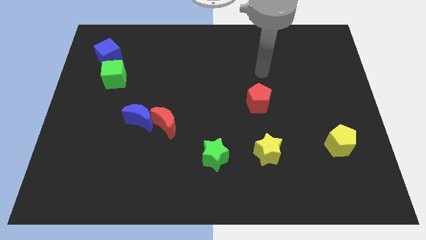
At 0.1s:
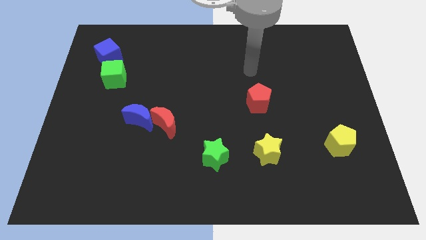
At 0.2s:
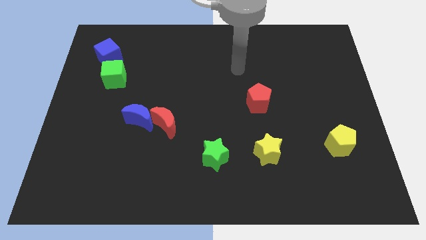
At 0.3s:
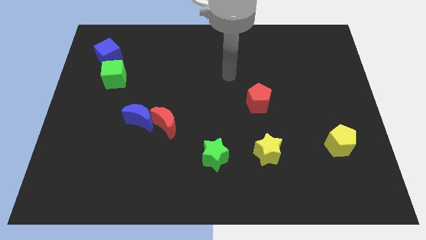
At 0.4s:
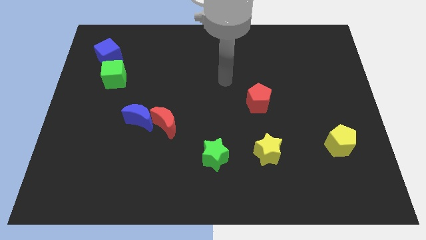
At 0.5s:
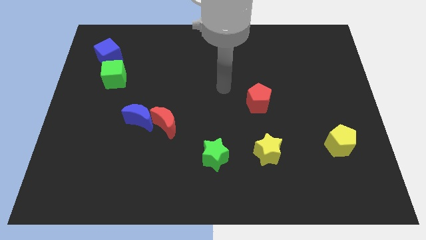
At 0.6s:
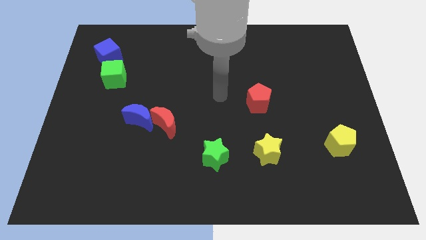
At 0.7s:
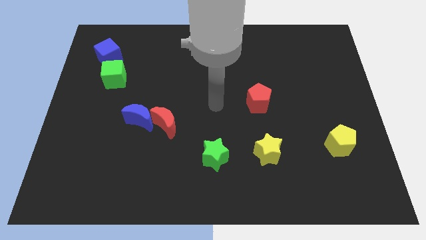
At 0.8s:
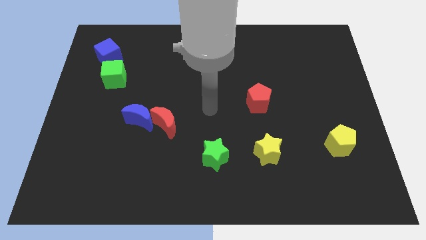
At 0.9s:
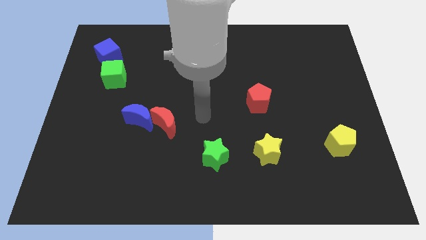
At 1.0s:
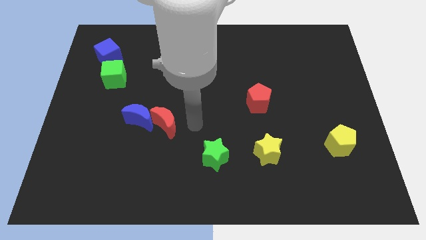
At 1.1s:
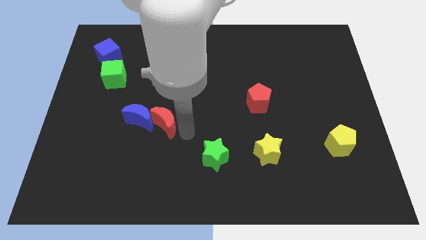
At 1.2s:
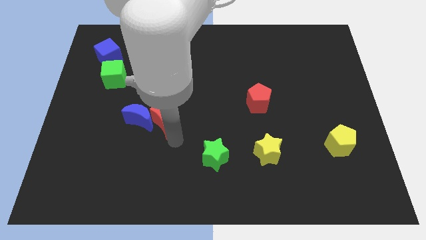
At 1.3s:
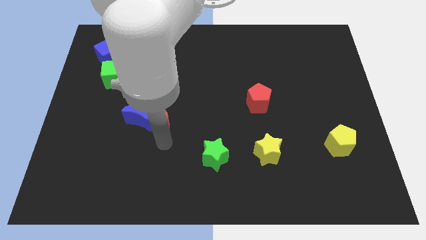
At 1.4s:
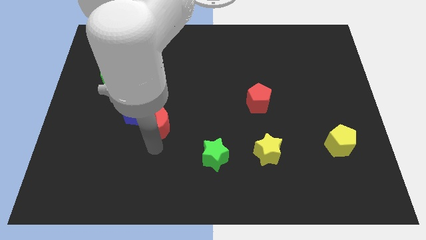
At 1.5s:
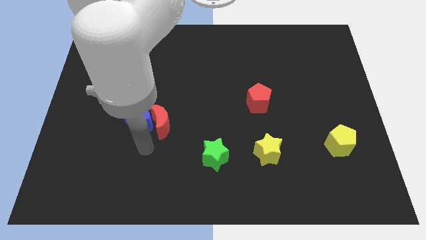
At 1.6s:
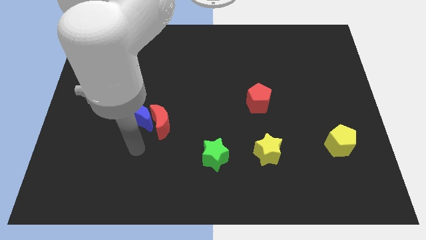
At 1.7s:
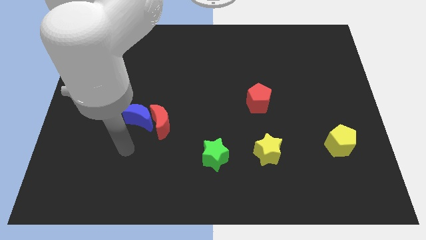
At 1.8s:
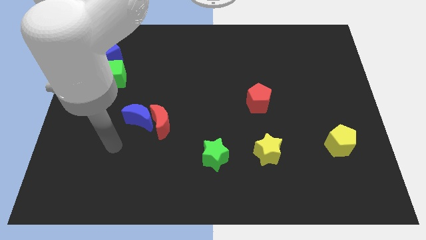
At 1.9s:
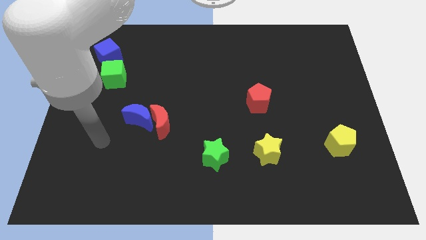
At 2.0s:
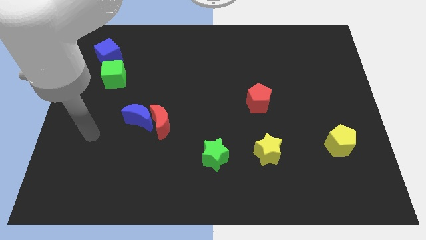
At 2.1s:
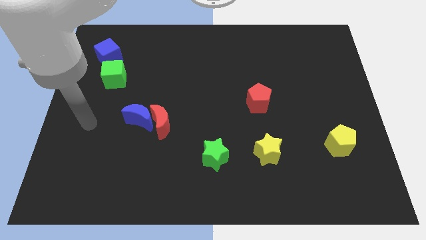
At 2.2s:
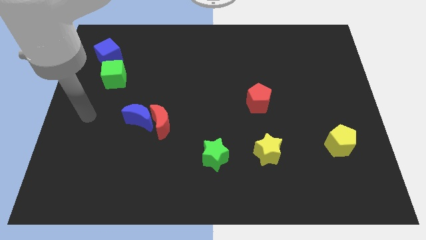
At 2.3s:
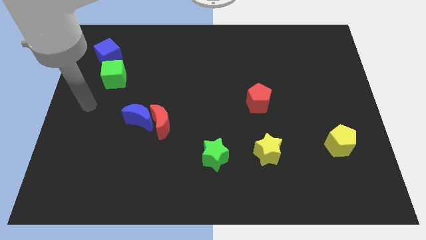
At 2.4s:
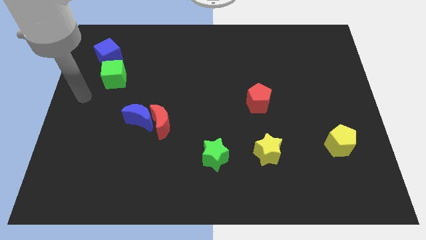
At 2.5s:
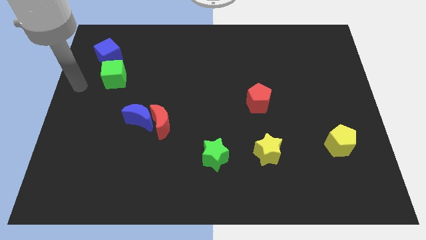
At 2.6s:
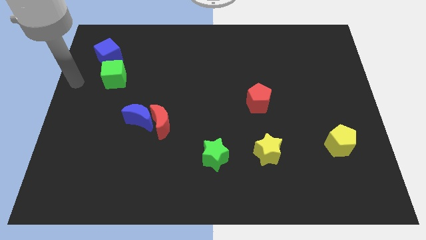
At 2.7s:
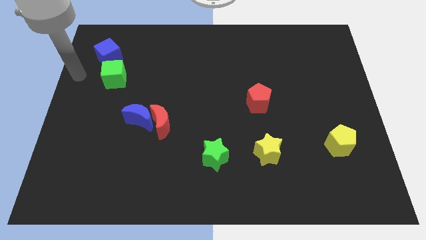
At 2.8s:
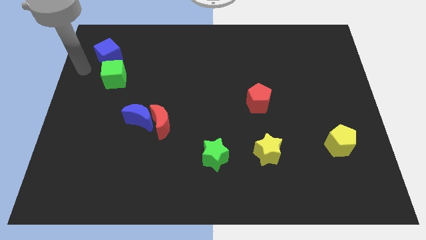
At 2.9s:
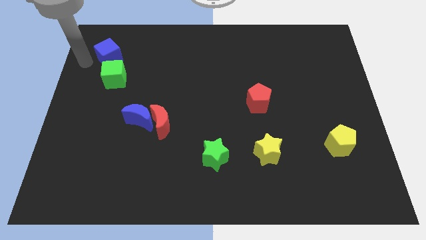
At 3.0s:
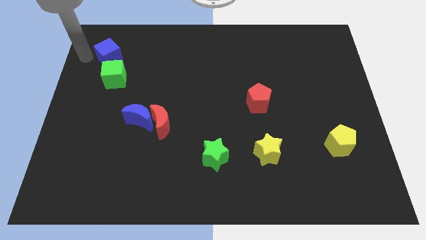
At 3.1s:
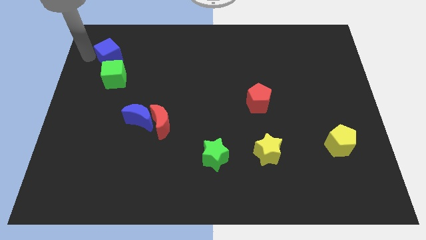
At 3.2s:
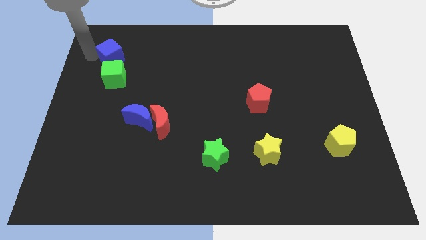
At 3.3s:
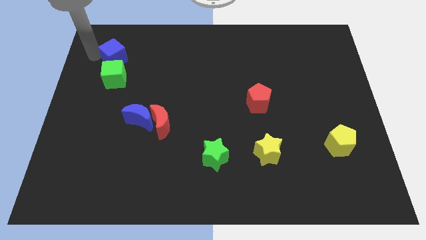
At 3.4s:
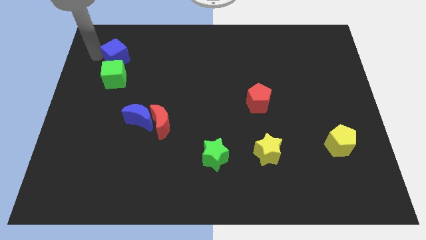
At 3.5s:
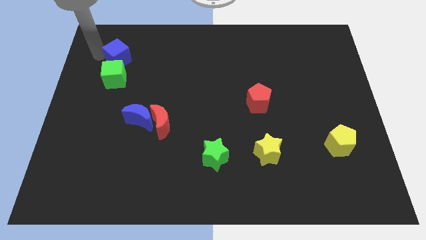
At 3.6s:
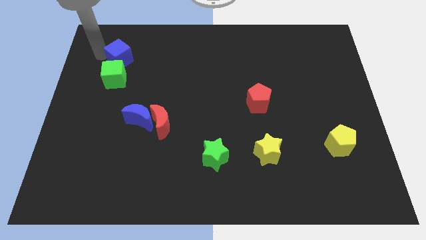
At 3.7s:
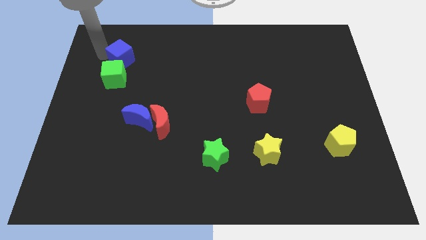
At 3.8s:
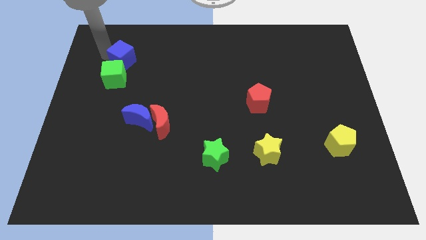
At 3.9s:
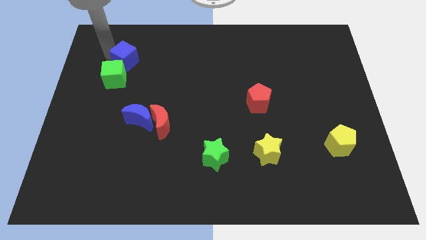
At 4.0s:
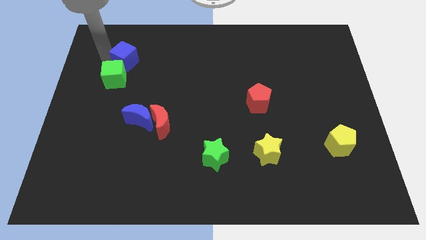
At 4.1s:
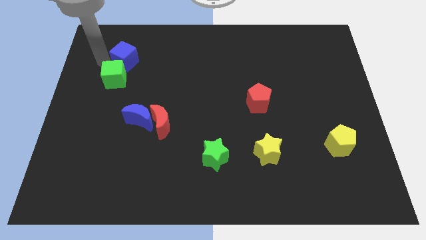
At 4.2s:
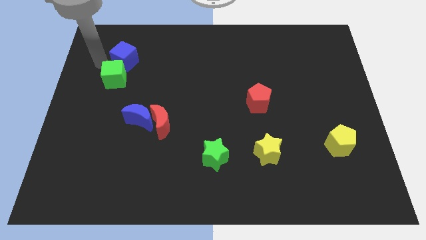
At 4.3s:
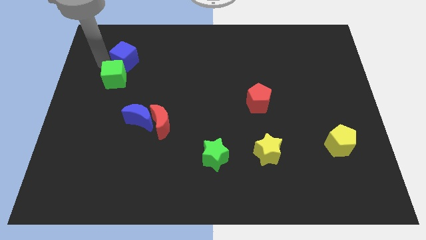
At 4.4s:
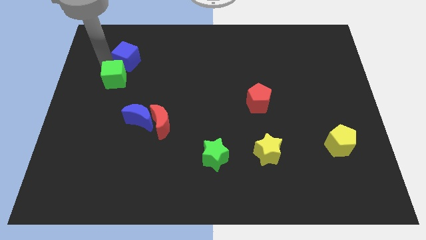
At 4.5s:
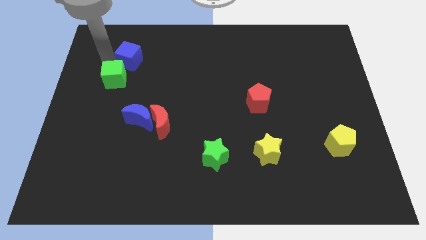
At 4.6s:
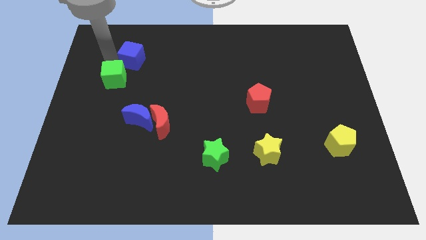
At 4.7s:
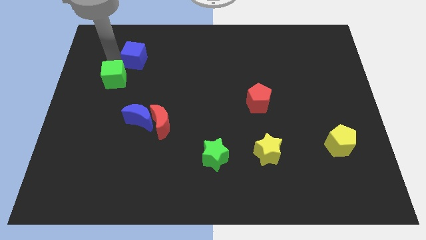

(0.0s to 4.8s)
slightly move the blue cube to the right

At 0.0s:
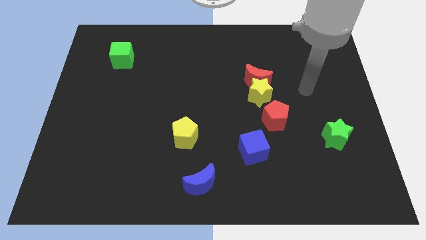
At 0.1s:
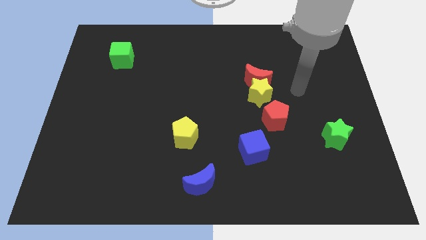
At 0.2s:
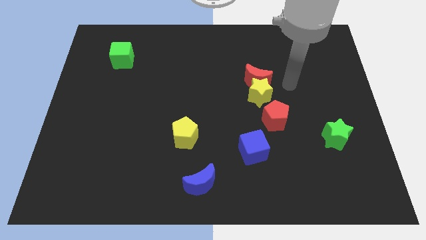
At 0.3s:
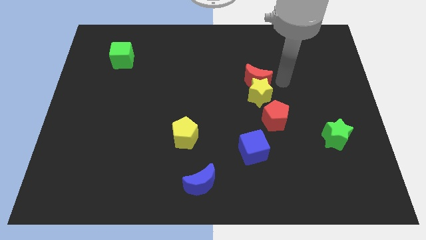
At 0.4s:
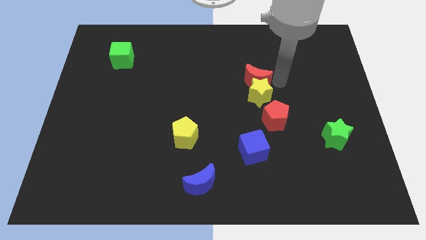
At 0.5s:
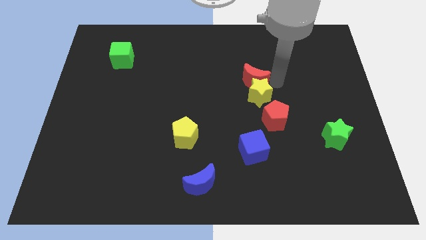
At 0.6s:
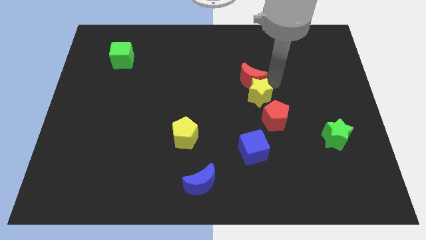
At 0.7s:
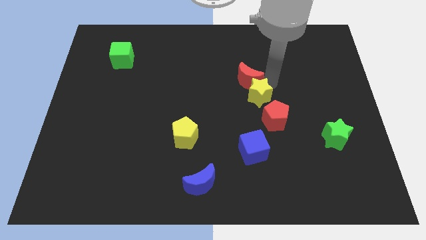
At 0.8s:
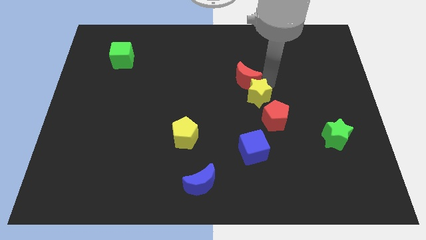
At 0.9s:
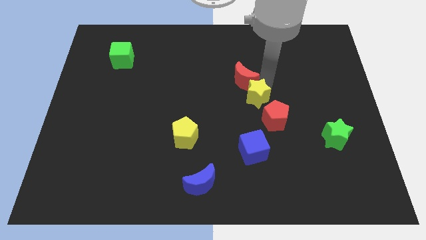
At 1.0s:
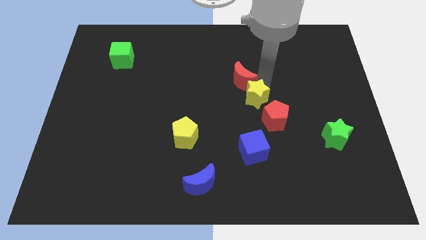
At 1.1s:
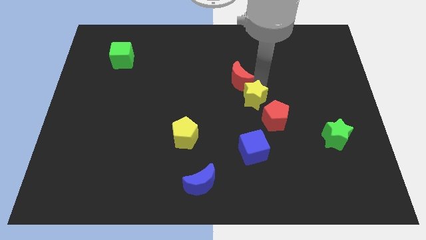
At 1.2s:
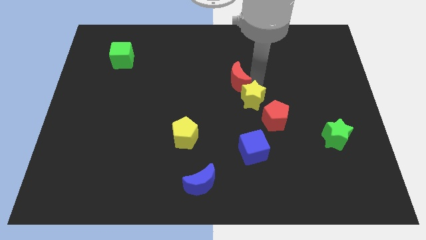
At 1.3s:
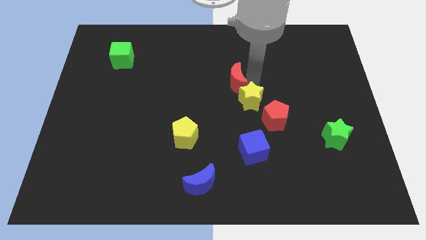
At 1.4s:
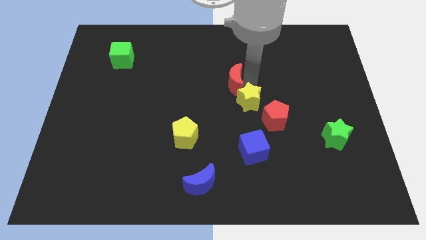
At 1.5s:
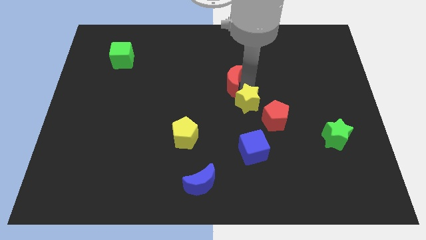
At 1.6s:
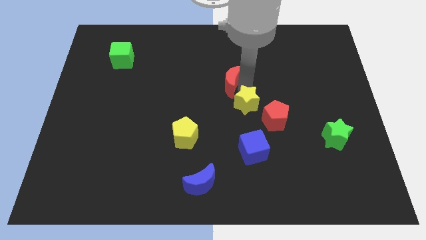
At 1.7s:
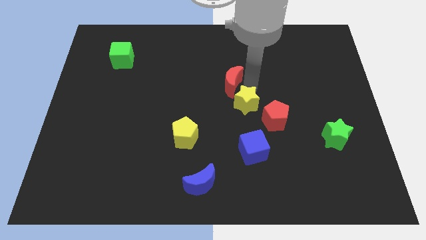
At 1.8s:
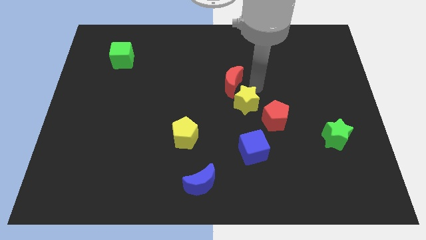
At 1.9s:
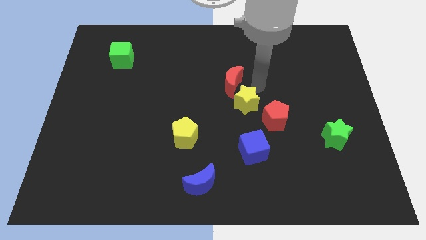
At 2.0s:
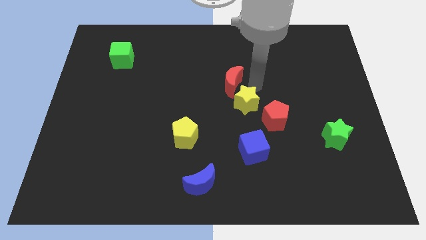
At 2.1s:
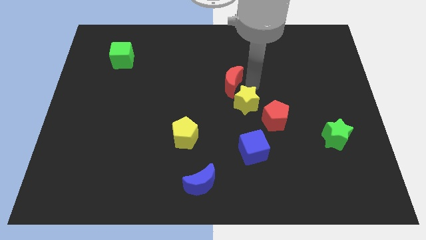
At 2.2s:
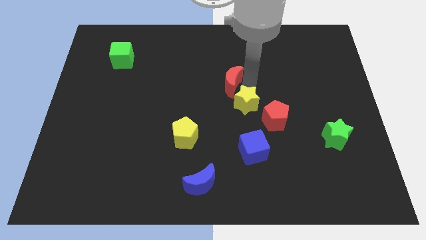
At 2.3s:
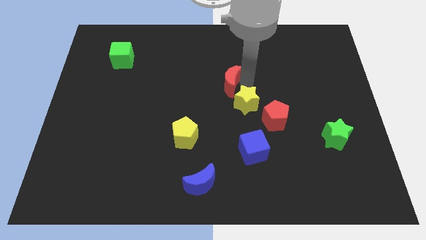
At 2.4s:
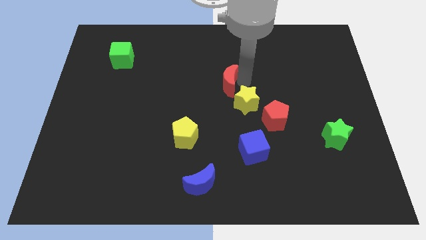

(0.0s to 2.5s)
push the red moon to the left somewhat

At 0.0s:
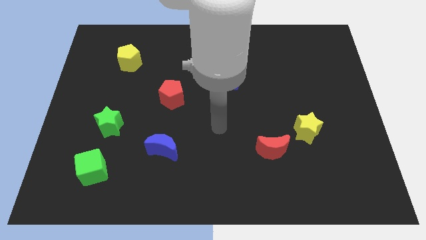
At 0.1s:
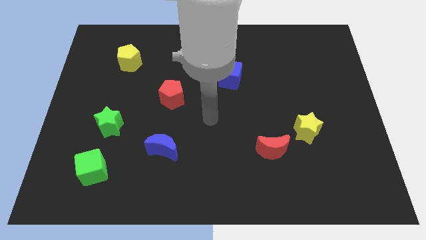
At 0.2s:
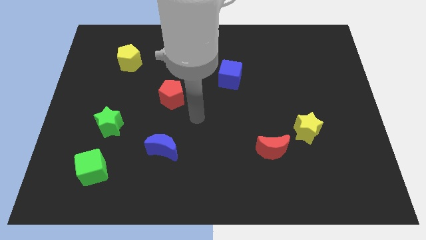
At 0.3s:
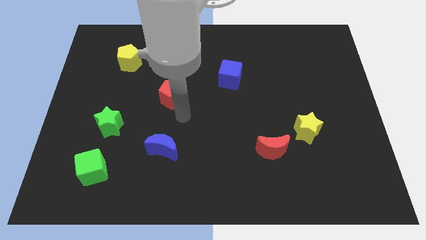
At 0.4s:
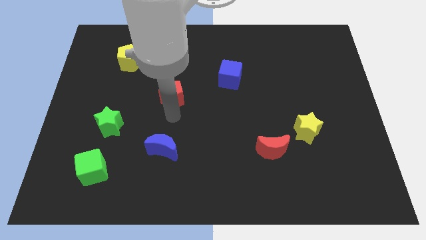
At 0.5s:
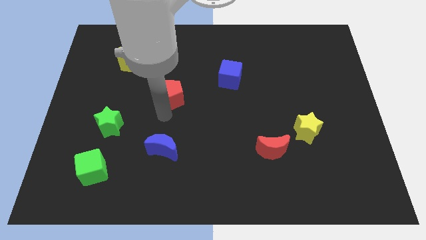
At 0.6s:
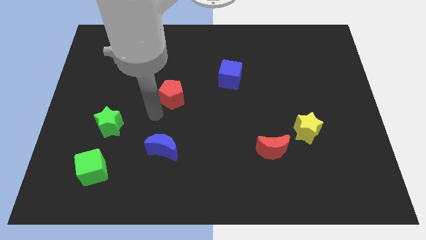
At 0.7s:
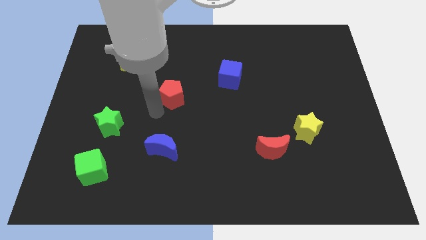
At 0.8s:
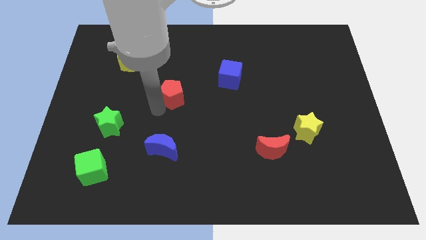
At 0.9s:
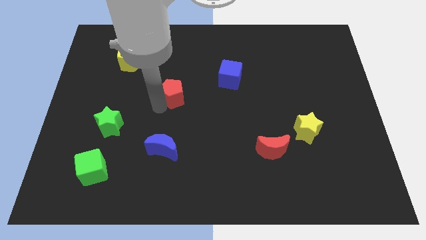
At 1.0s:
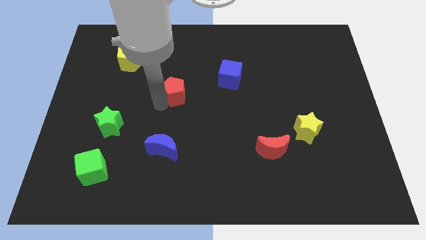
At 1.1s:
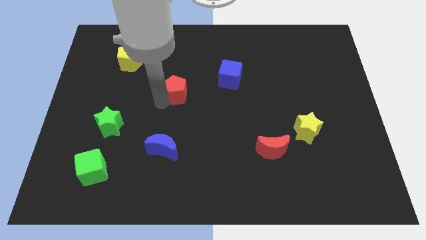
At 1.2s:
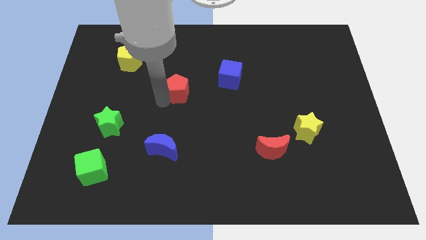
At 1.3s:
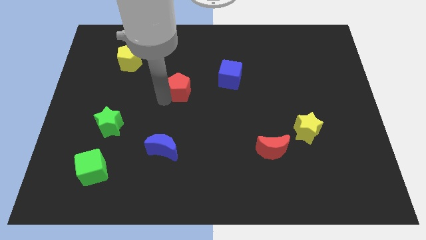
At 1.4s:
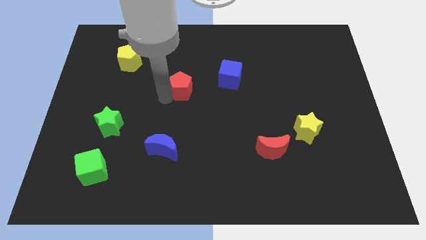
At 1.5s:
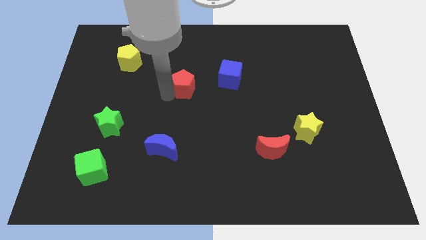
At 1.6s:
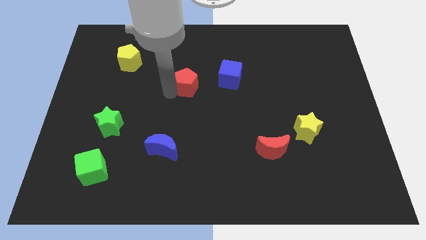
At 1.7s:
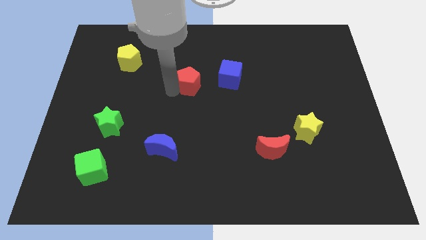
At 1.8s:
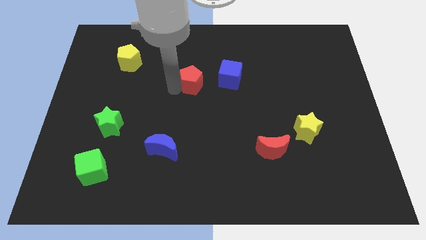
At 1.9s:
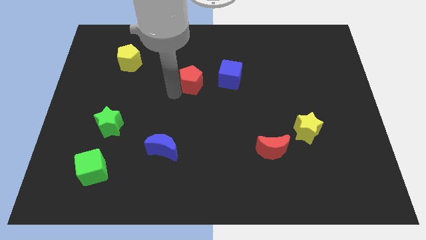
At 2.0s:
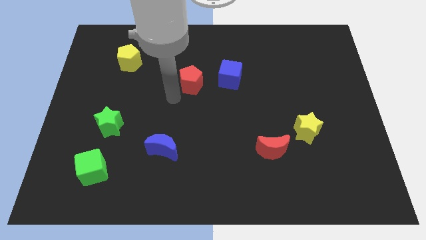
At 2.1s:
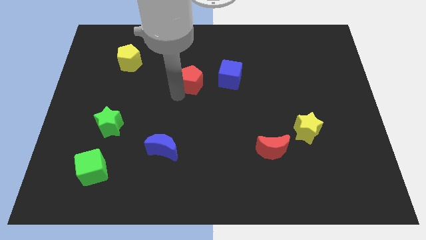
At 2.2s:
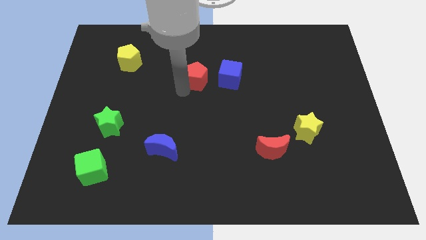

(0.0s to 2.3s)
slide the red pentagon a bit diagonally up and right
